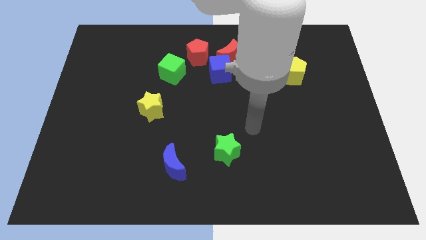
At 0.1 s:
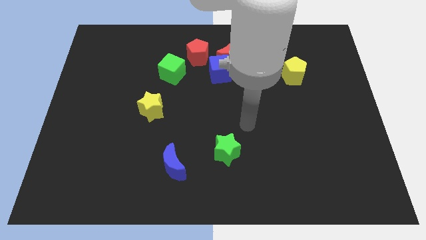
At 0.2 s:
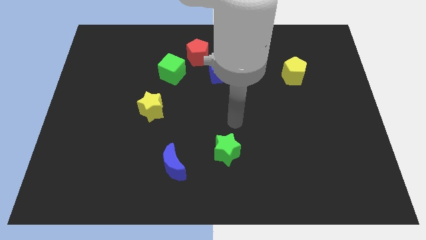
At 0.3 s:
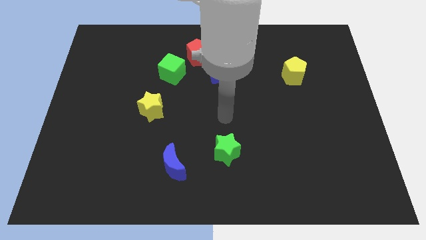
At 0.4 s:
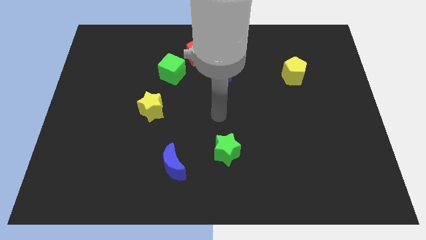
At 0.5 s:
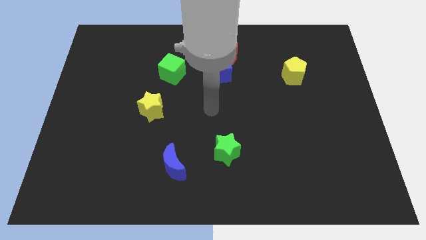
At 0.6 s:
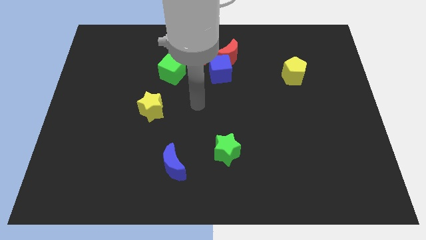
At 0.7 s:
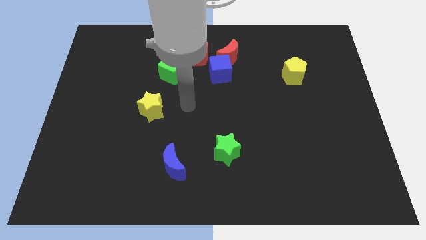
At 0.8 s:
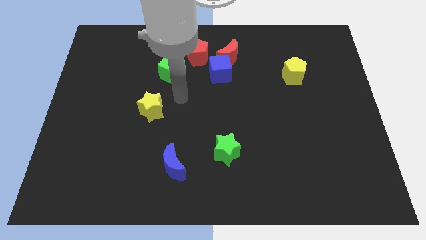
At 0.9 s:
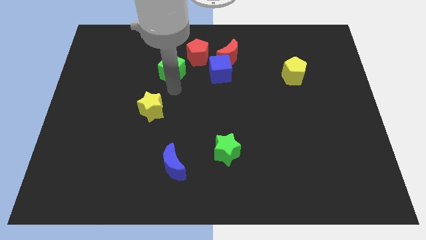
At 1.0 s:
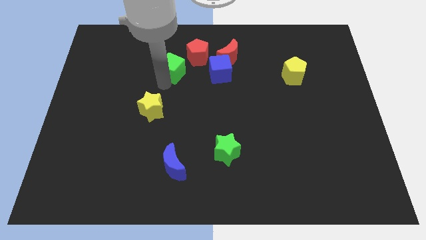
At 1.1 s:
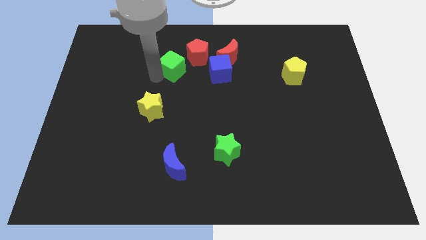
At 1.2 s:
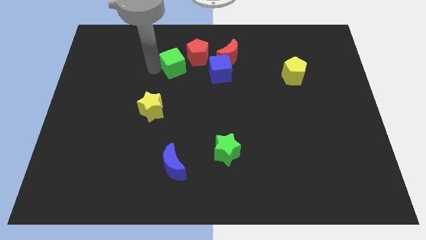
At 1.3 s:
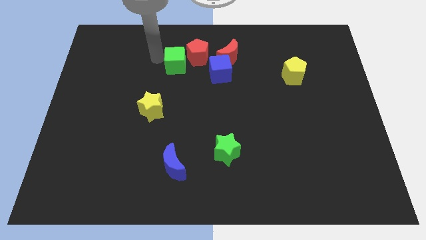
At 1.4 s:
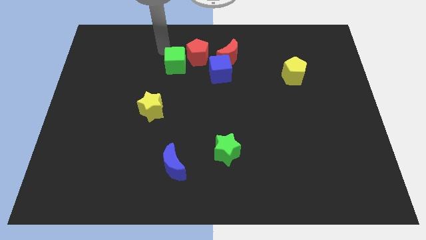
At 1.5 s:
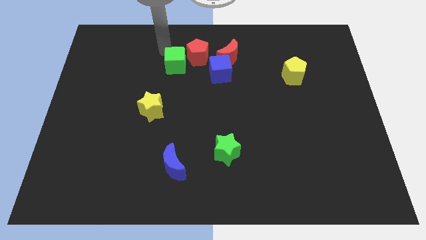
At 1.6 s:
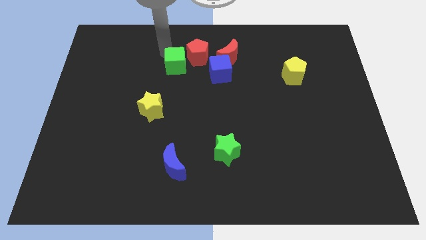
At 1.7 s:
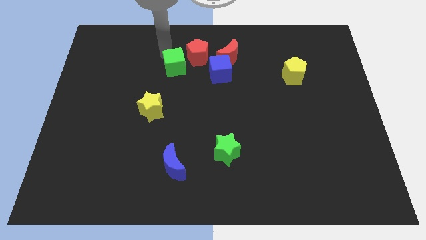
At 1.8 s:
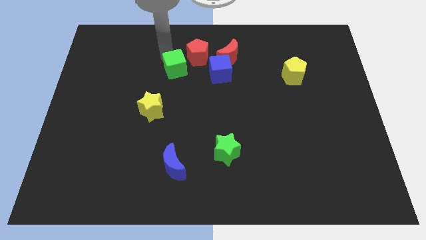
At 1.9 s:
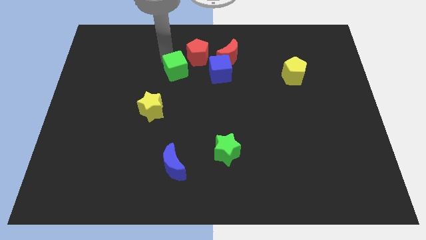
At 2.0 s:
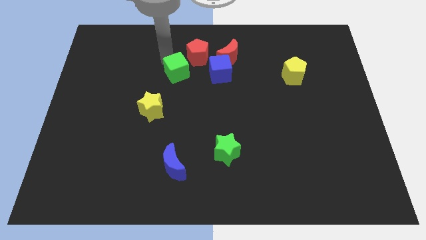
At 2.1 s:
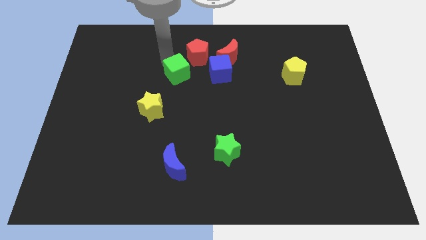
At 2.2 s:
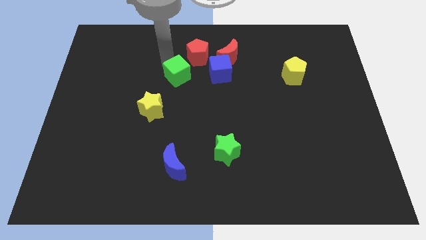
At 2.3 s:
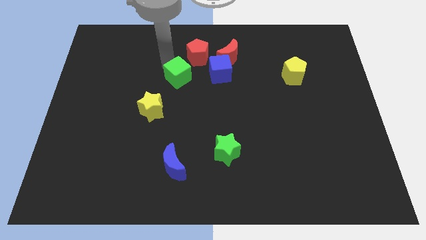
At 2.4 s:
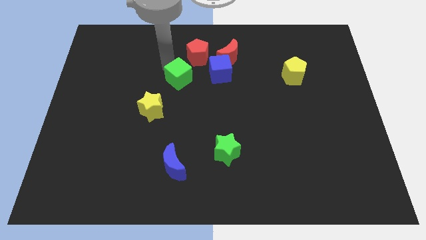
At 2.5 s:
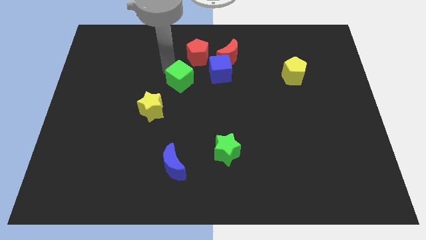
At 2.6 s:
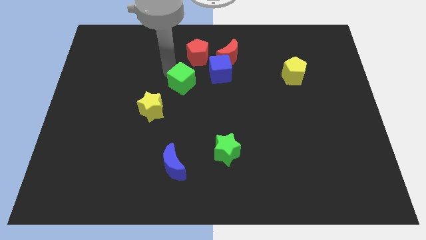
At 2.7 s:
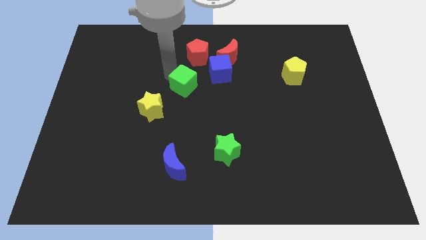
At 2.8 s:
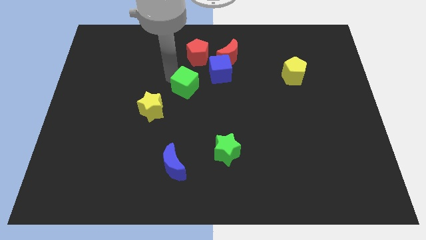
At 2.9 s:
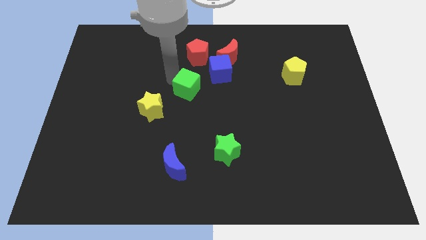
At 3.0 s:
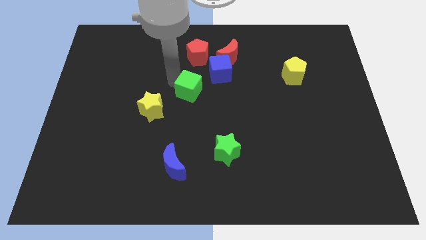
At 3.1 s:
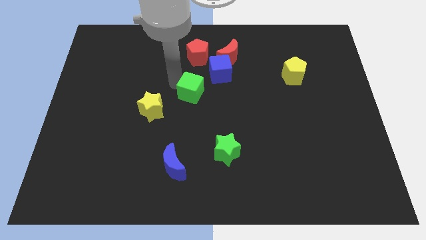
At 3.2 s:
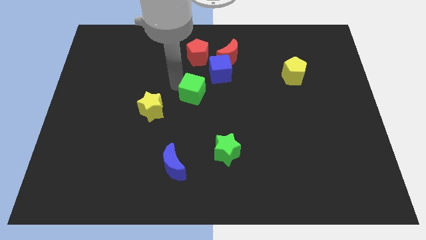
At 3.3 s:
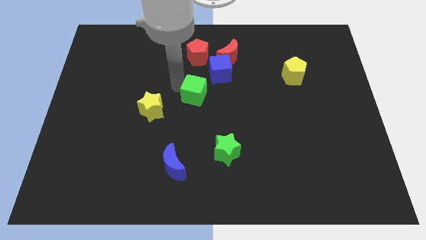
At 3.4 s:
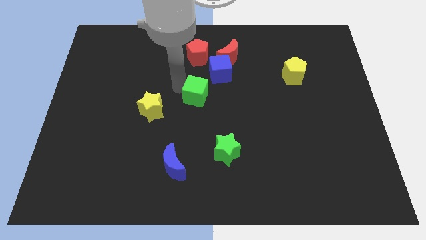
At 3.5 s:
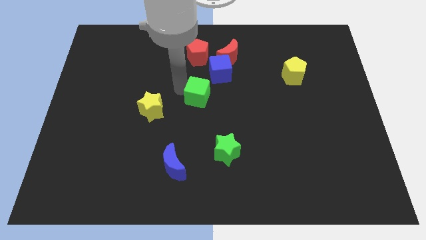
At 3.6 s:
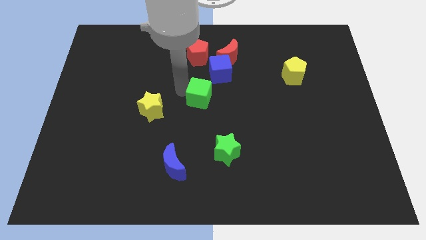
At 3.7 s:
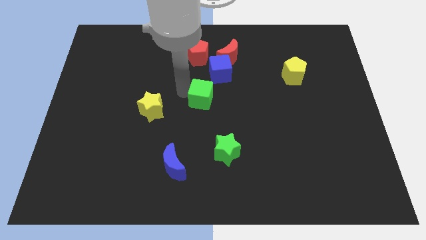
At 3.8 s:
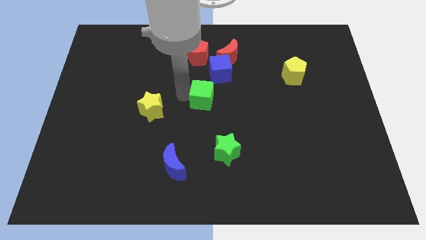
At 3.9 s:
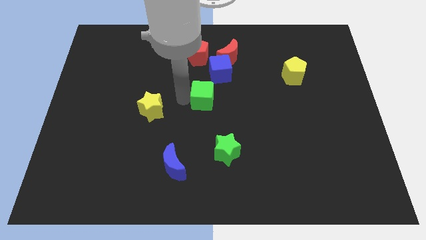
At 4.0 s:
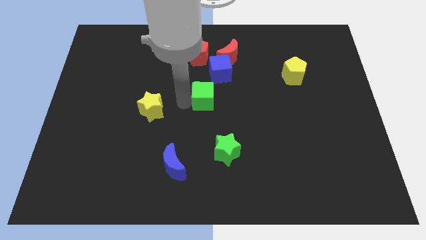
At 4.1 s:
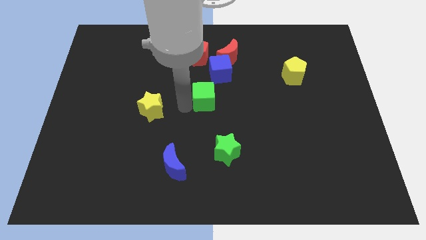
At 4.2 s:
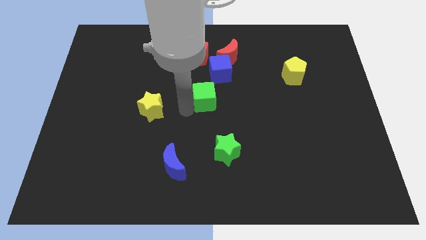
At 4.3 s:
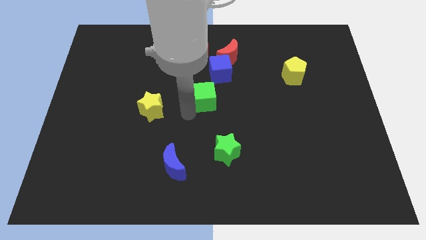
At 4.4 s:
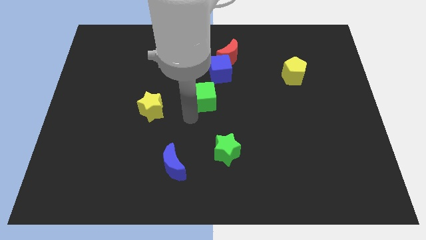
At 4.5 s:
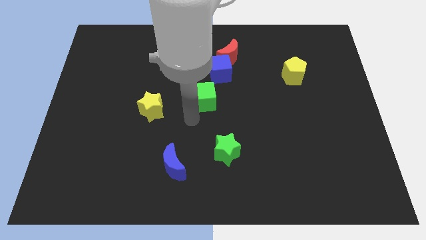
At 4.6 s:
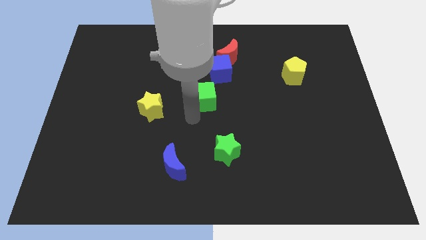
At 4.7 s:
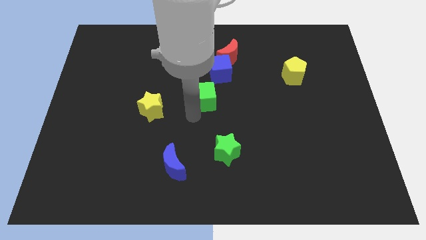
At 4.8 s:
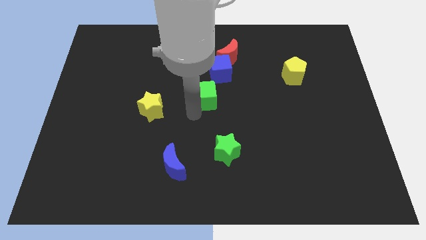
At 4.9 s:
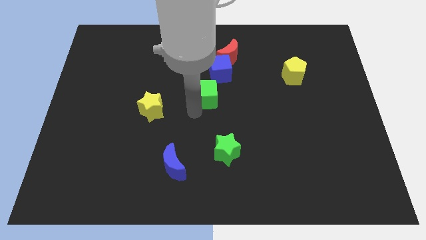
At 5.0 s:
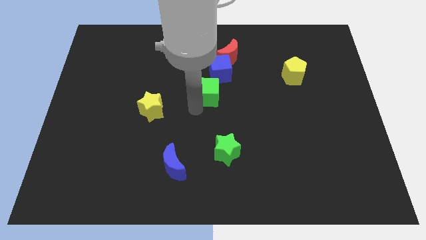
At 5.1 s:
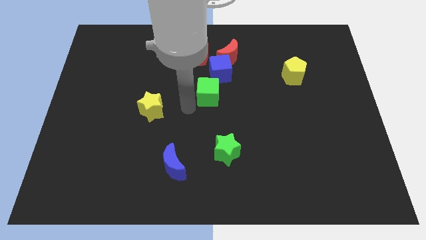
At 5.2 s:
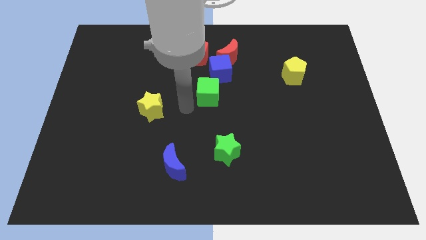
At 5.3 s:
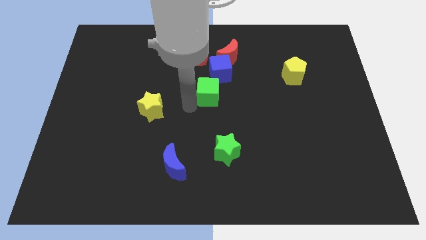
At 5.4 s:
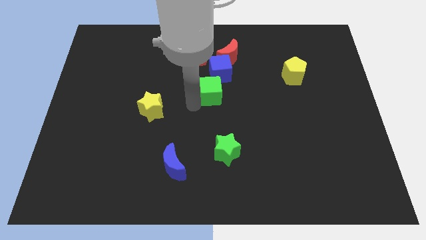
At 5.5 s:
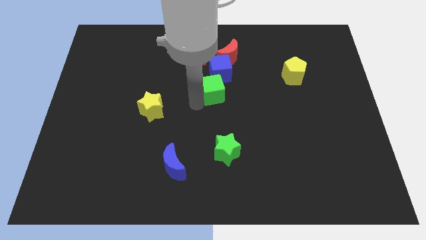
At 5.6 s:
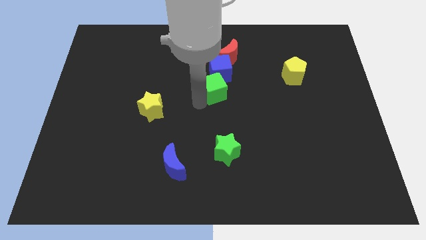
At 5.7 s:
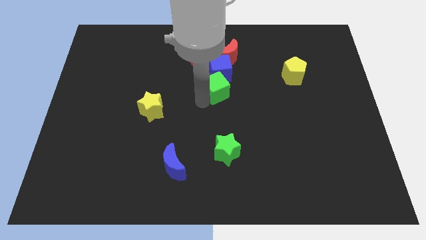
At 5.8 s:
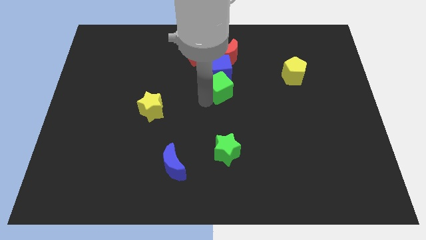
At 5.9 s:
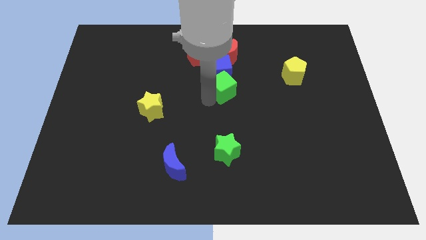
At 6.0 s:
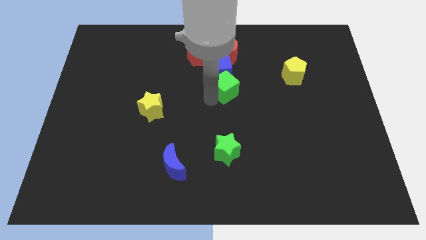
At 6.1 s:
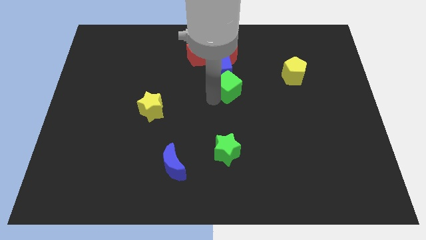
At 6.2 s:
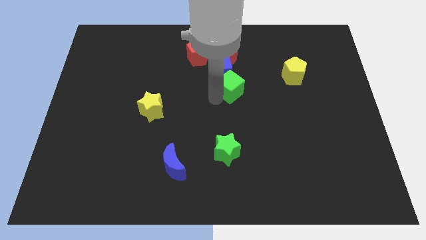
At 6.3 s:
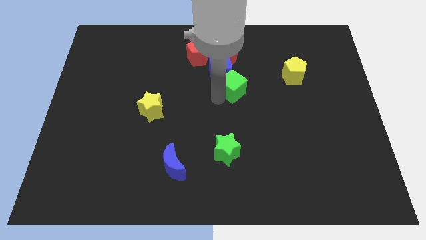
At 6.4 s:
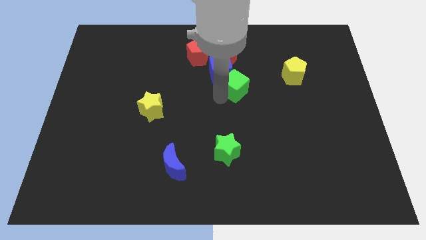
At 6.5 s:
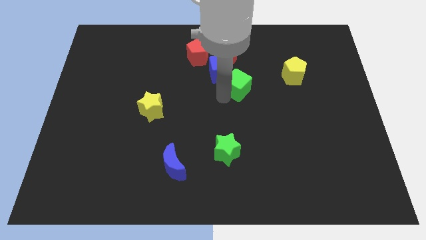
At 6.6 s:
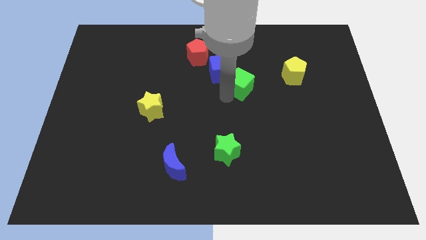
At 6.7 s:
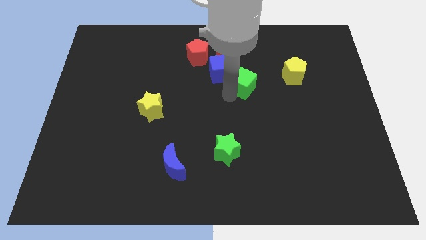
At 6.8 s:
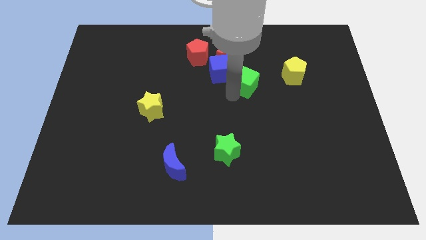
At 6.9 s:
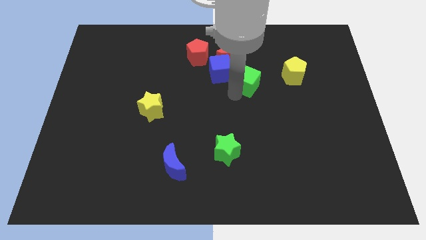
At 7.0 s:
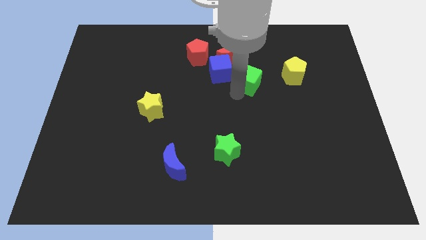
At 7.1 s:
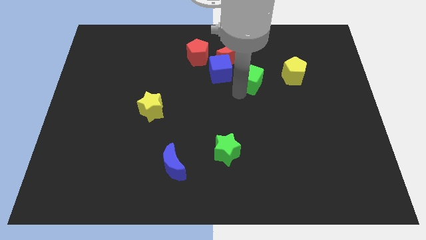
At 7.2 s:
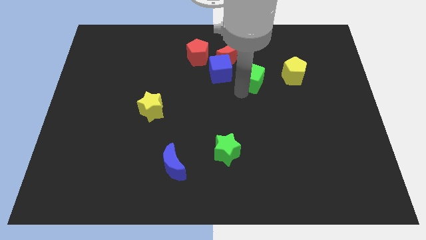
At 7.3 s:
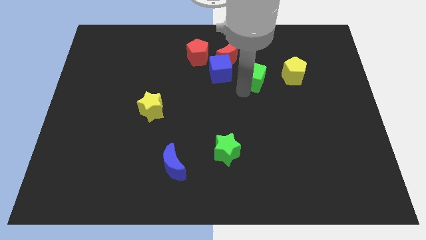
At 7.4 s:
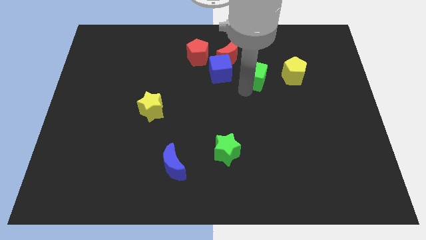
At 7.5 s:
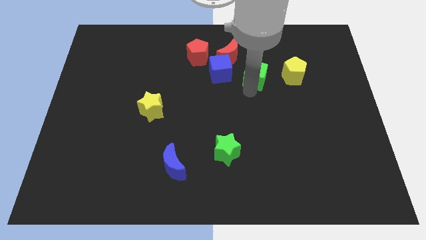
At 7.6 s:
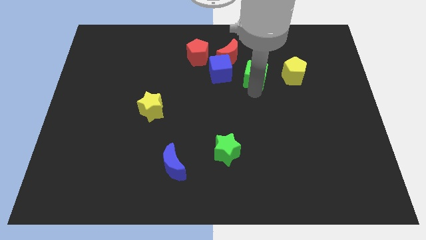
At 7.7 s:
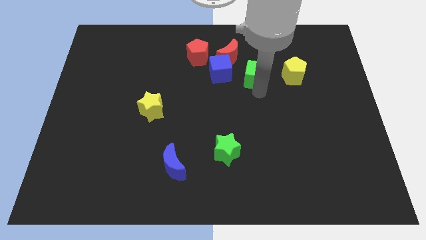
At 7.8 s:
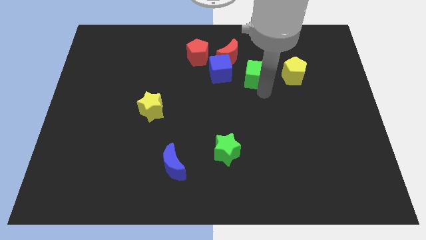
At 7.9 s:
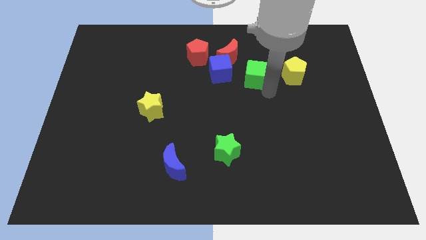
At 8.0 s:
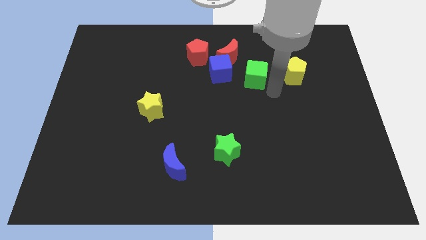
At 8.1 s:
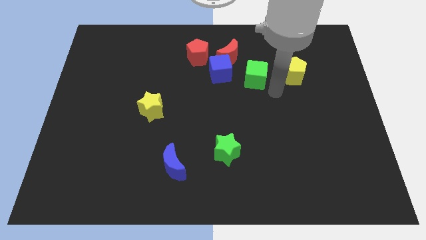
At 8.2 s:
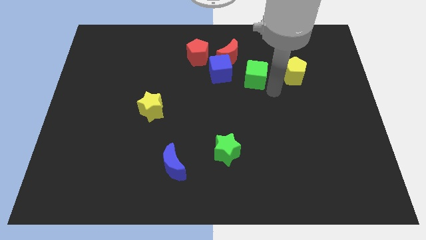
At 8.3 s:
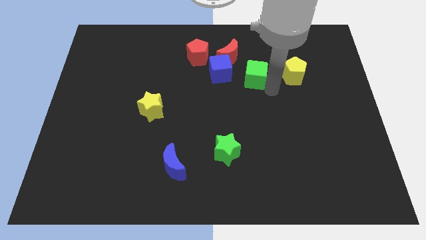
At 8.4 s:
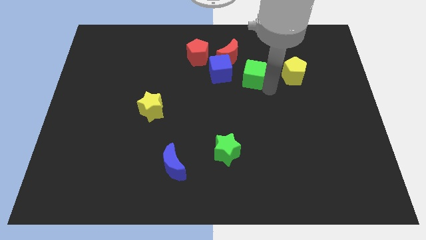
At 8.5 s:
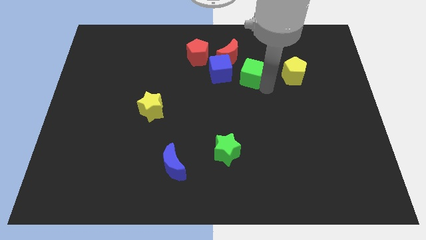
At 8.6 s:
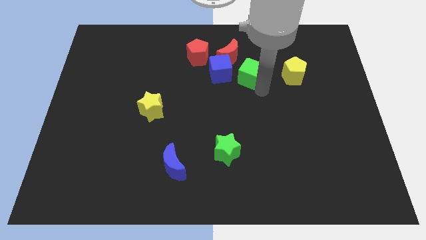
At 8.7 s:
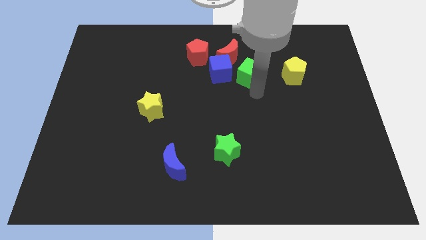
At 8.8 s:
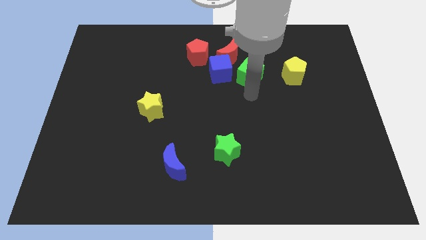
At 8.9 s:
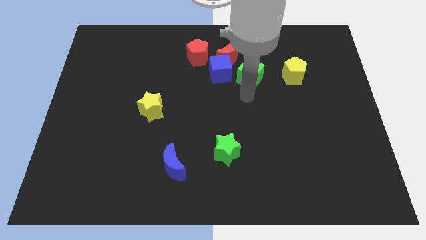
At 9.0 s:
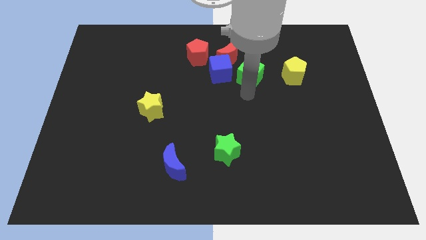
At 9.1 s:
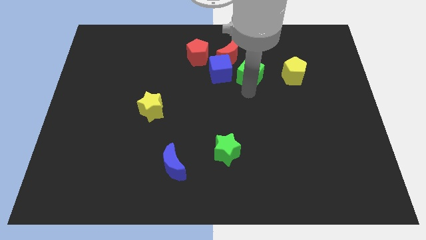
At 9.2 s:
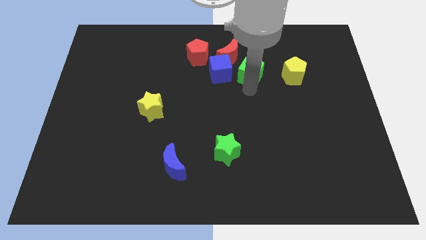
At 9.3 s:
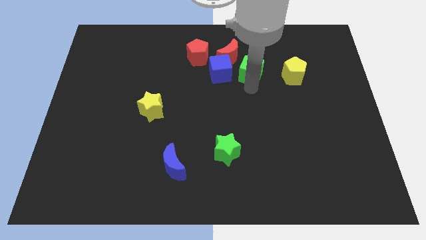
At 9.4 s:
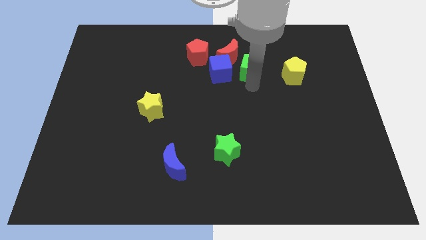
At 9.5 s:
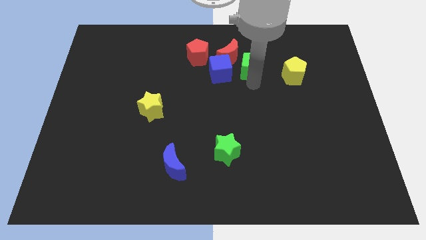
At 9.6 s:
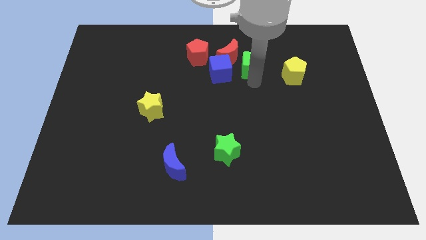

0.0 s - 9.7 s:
push the green cube right of the red pentagon
